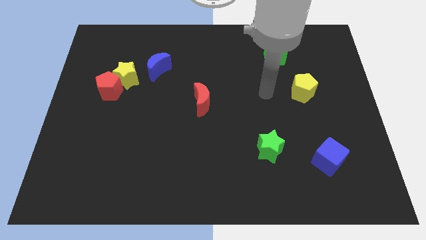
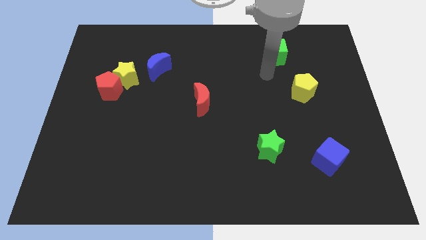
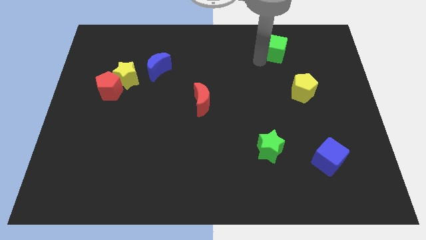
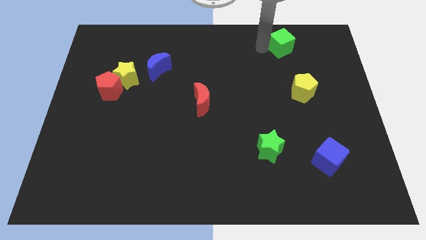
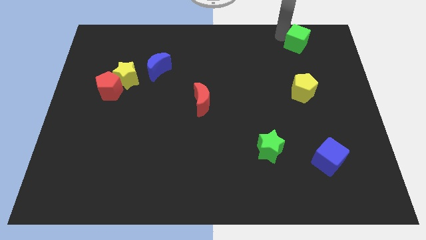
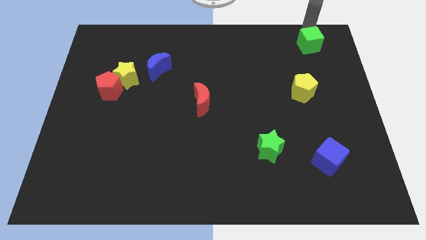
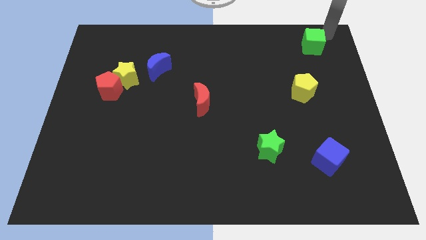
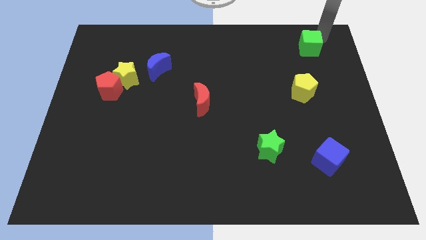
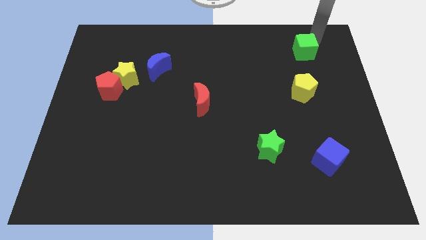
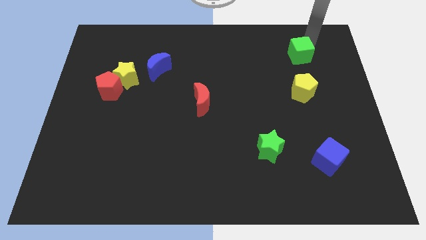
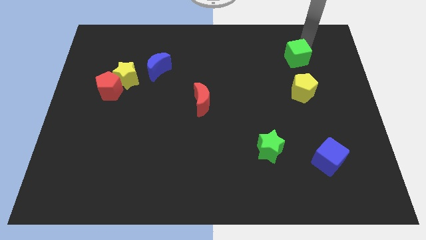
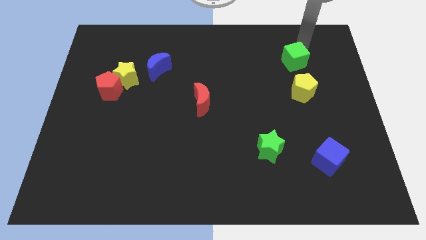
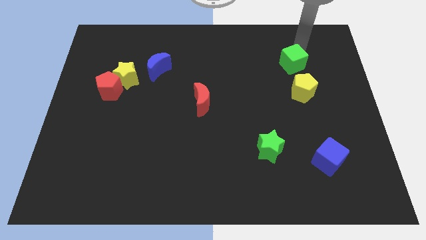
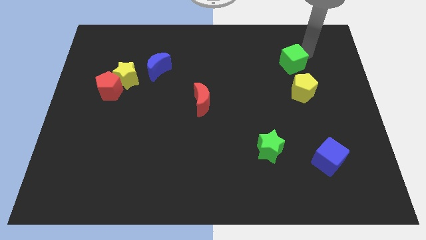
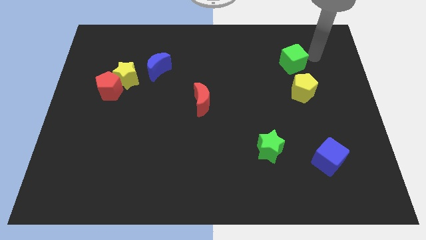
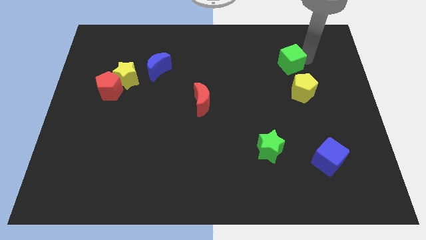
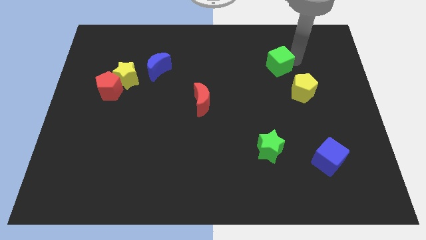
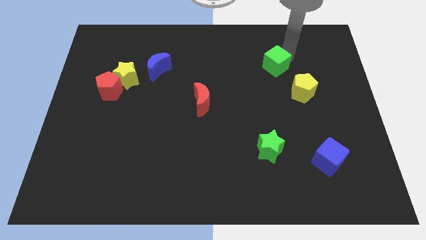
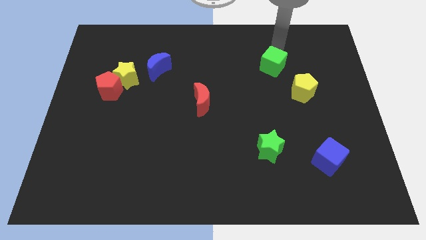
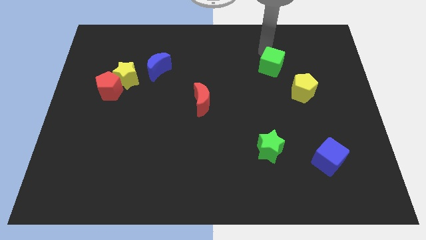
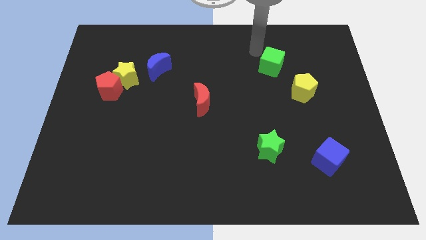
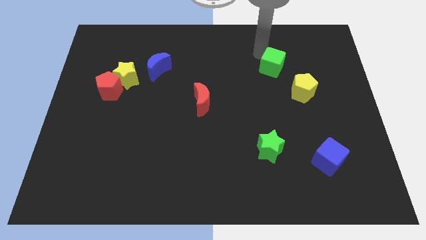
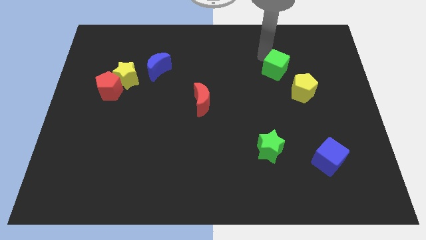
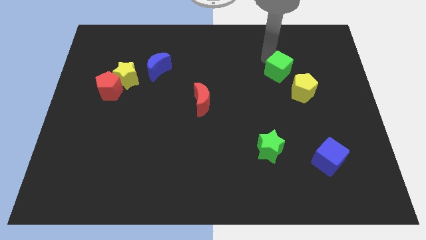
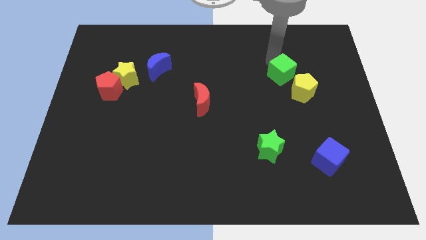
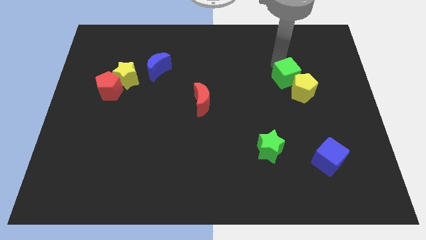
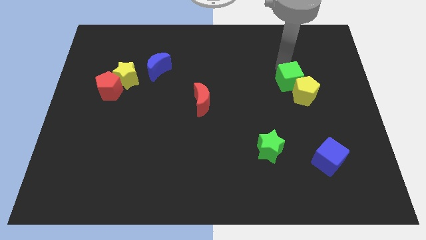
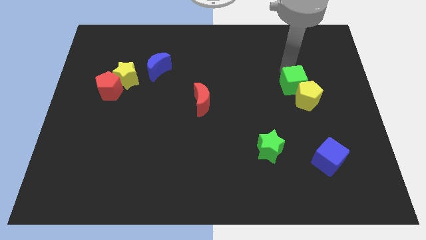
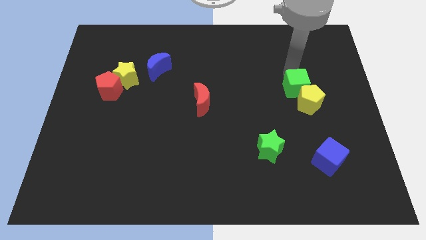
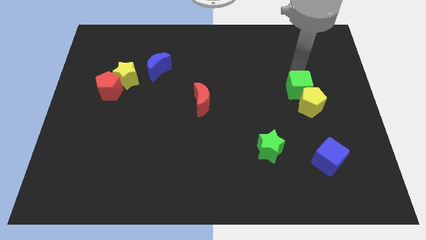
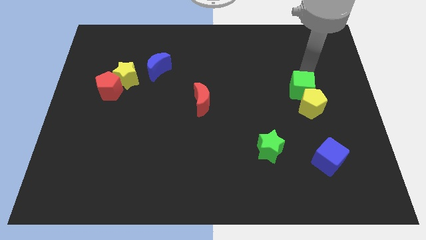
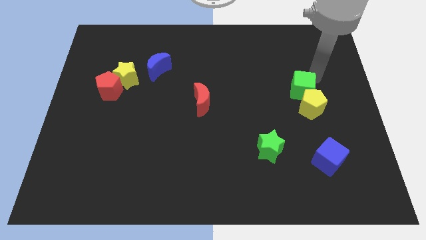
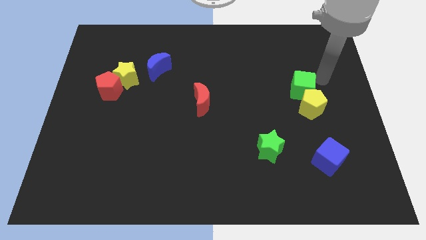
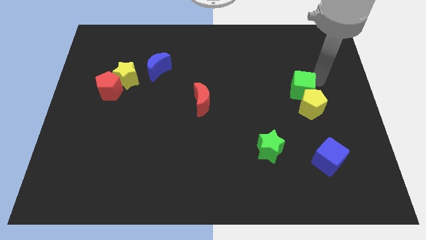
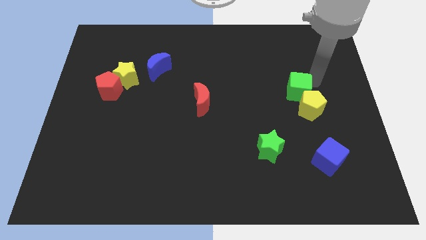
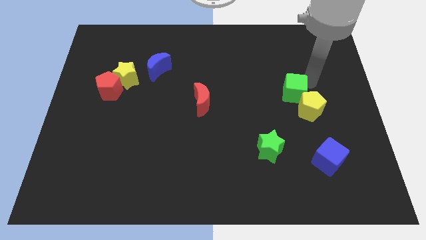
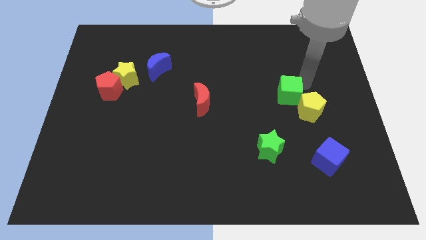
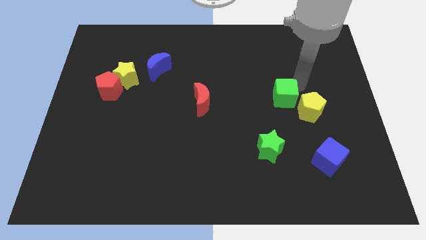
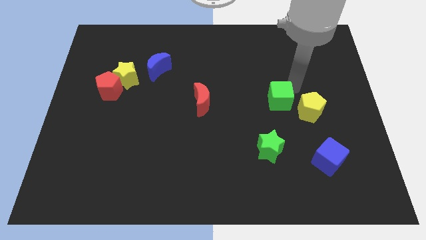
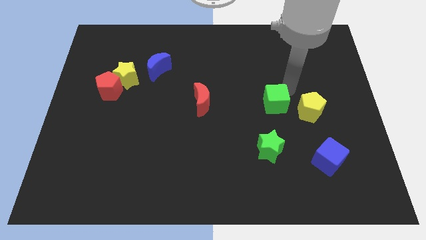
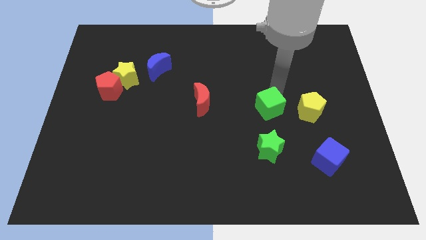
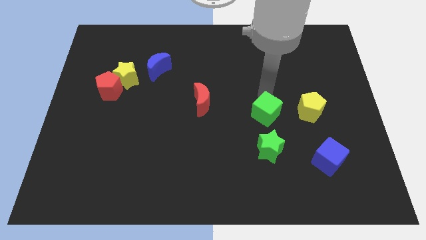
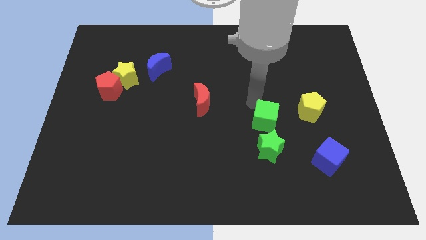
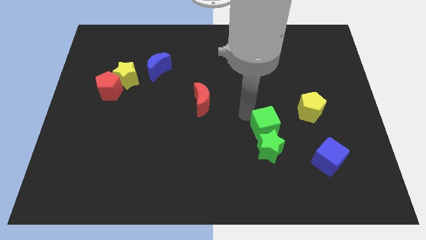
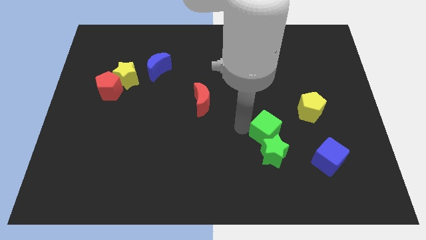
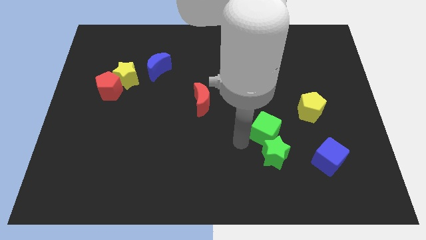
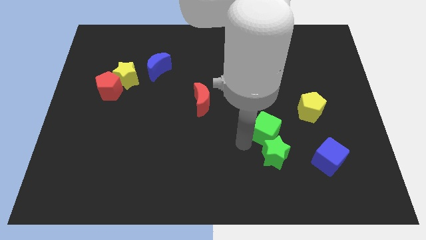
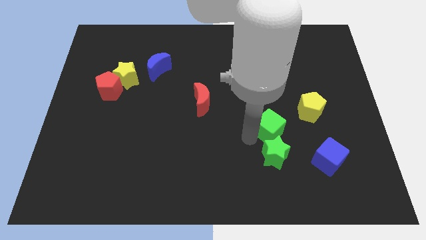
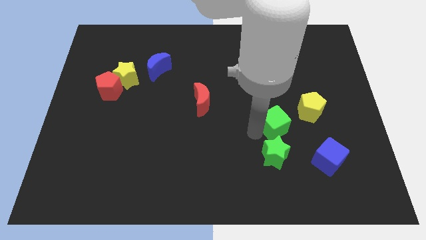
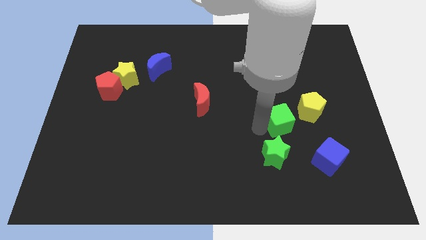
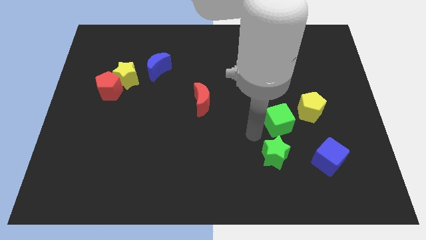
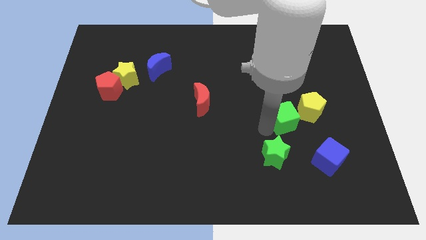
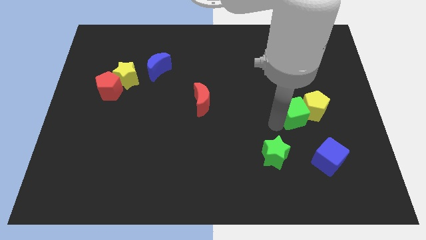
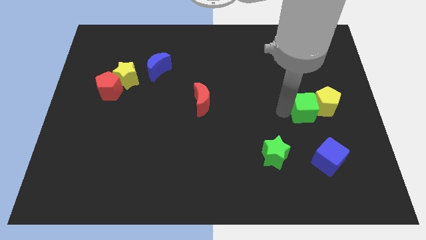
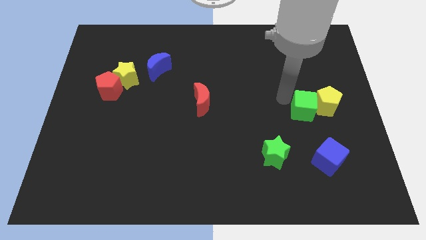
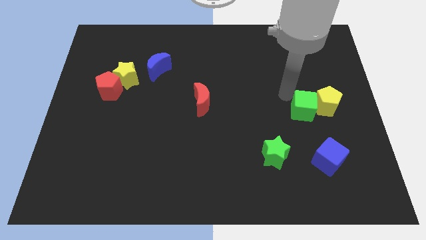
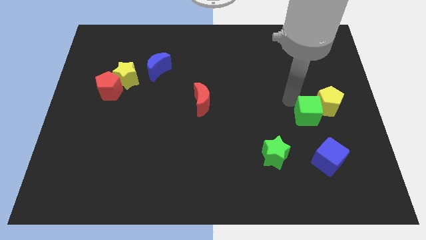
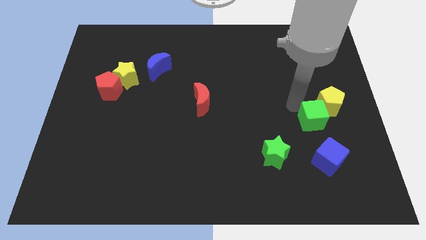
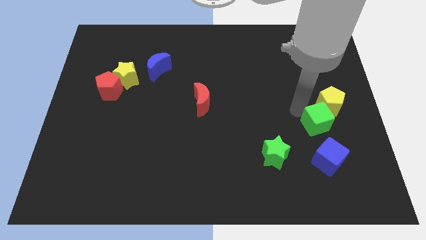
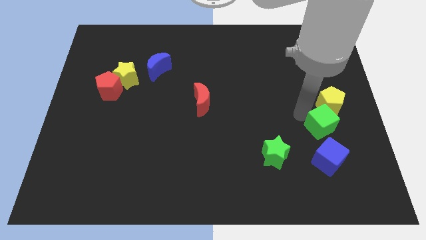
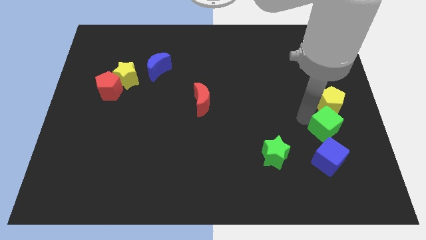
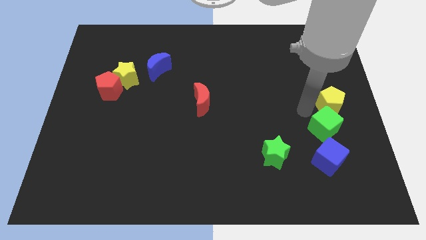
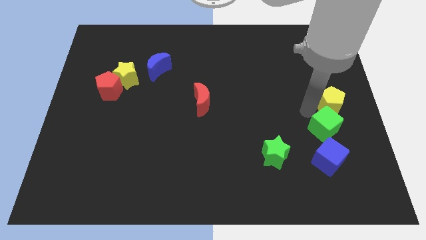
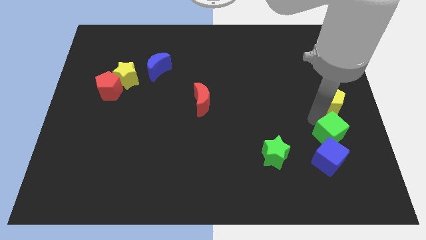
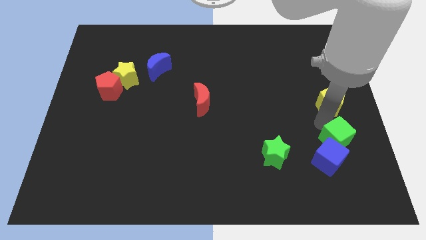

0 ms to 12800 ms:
push the green cube to the right of the green star

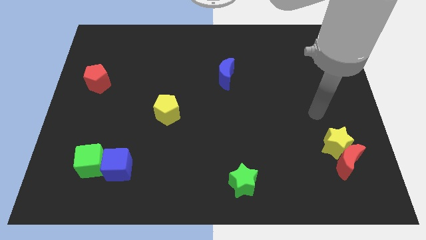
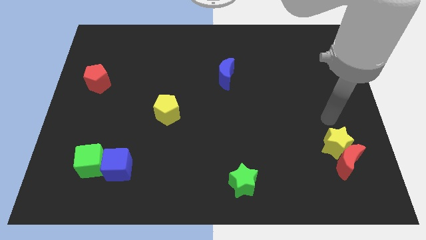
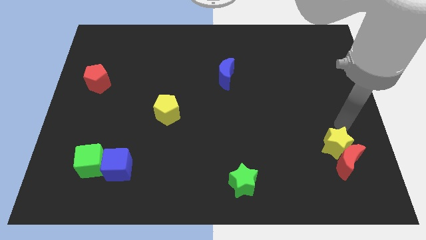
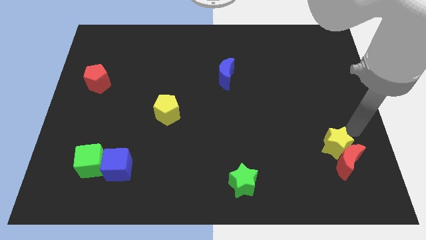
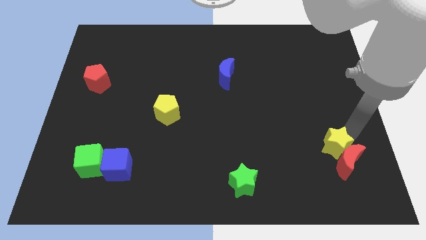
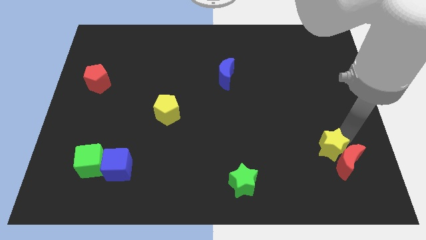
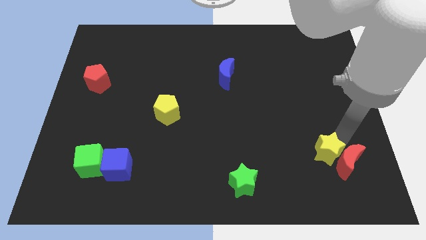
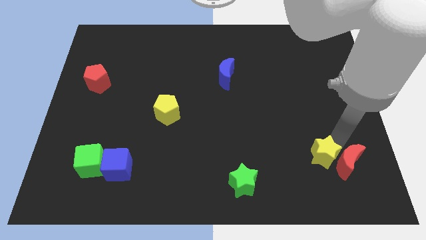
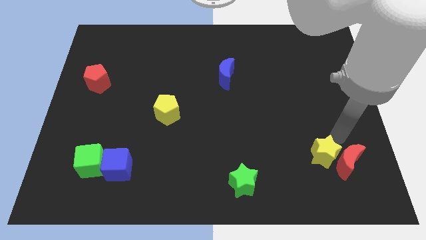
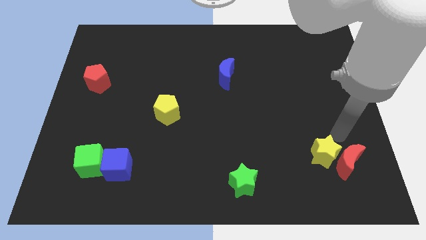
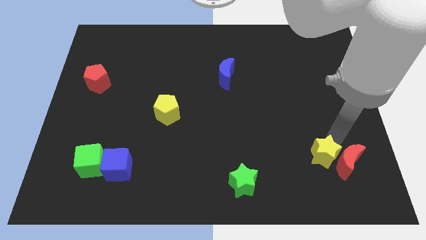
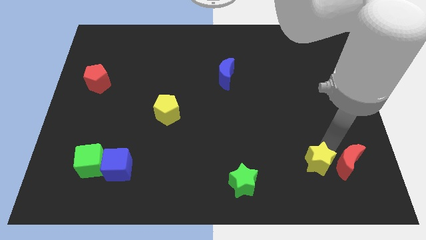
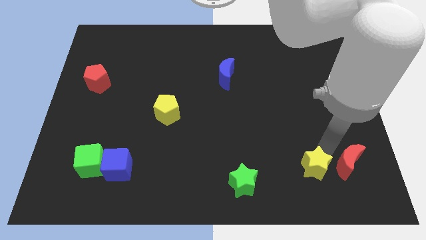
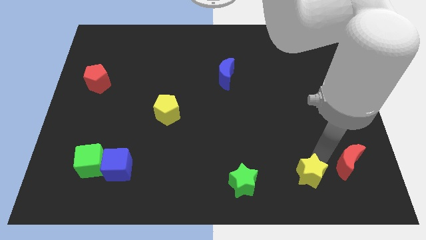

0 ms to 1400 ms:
push the yellow star to the right of the green star
